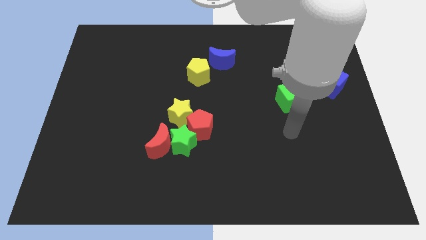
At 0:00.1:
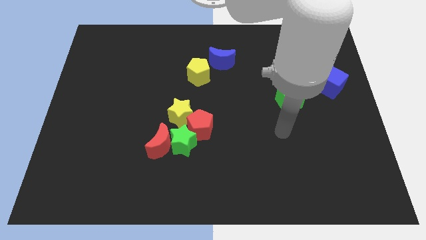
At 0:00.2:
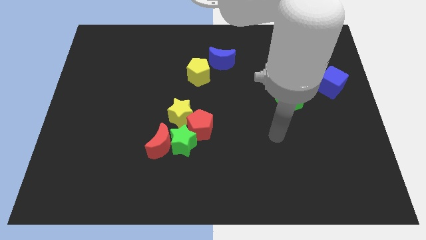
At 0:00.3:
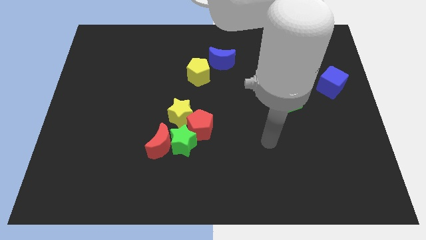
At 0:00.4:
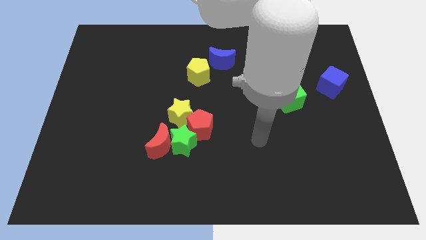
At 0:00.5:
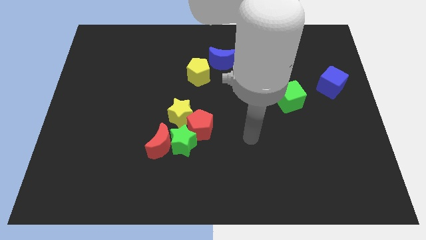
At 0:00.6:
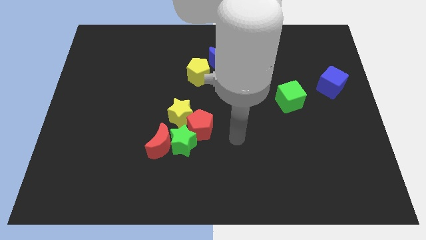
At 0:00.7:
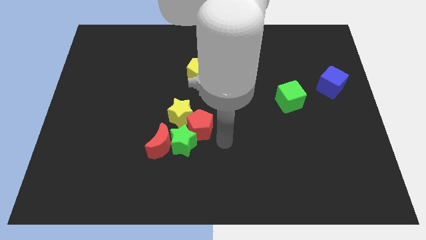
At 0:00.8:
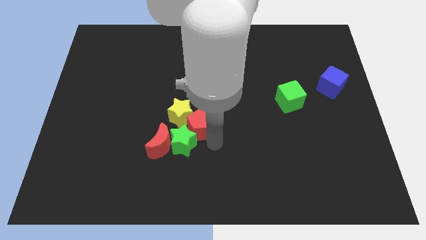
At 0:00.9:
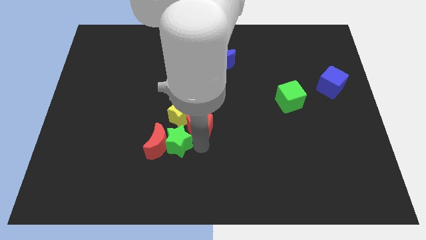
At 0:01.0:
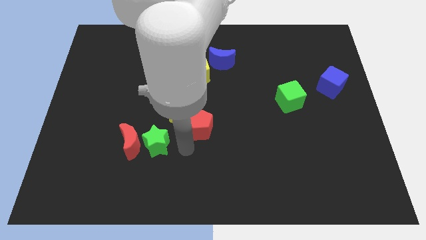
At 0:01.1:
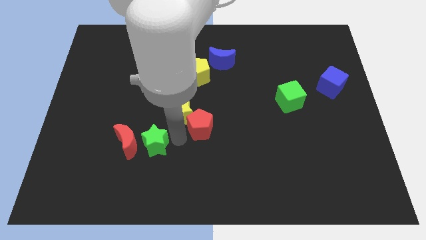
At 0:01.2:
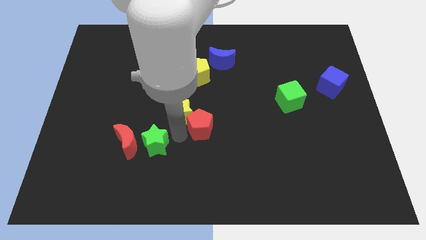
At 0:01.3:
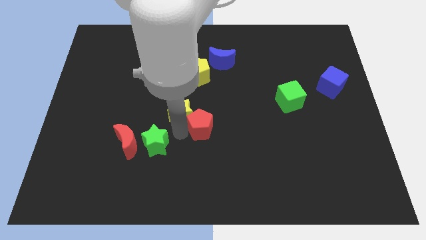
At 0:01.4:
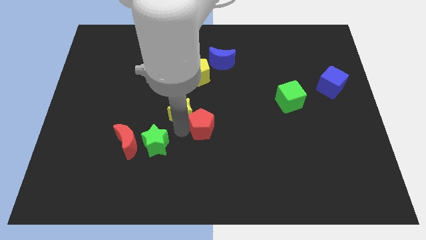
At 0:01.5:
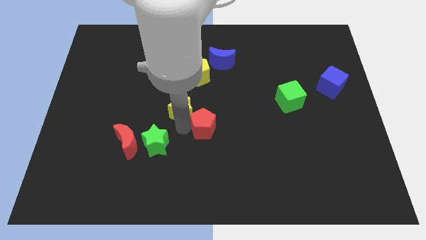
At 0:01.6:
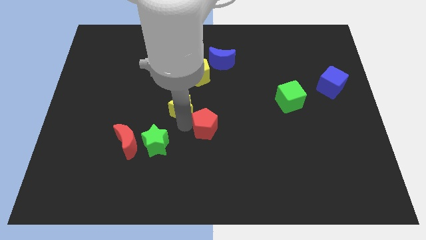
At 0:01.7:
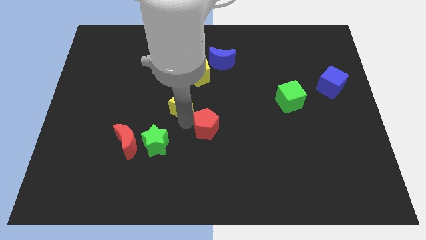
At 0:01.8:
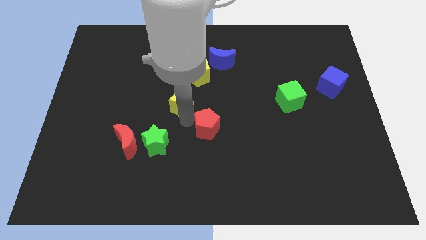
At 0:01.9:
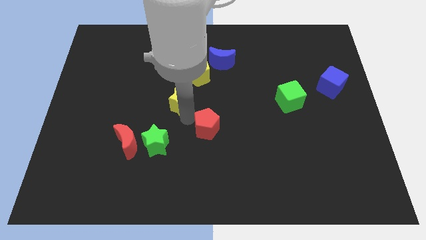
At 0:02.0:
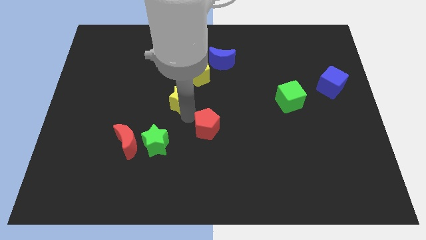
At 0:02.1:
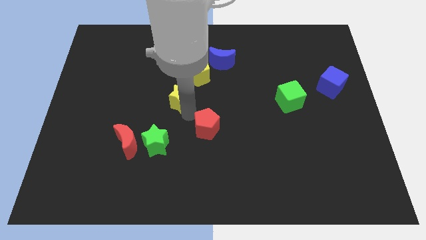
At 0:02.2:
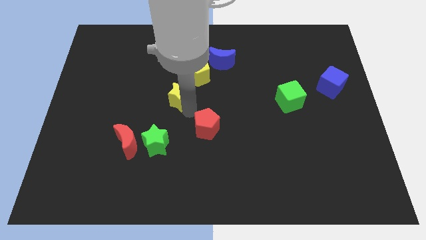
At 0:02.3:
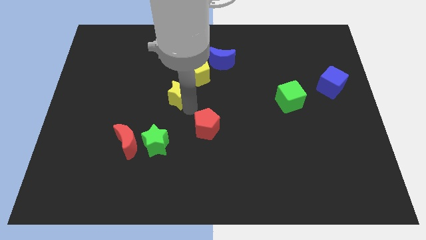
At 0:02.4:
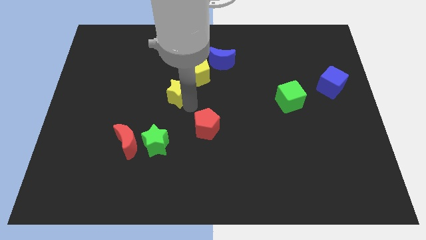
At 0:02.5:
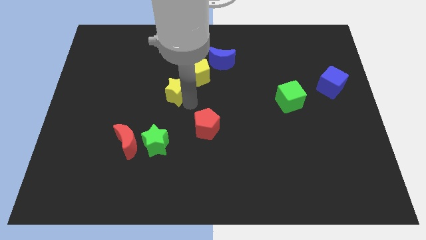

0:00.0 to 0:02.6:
slide the yellow star slightly up

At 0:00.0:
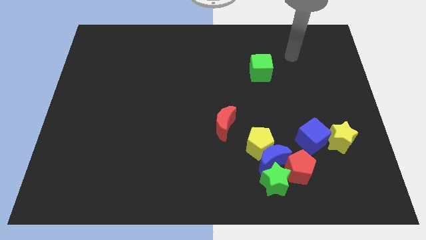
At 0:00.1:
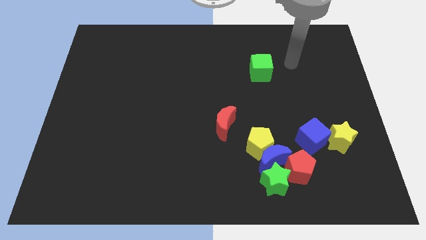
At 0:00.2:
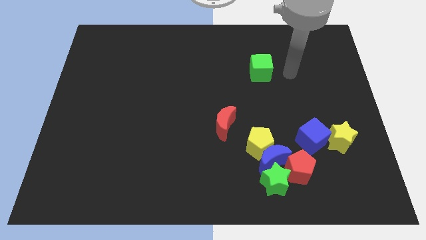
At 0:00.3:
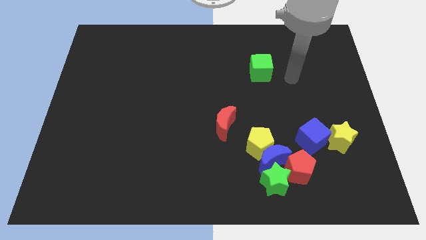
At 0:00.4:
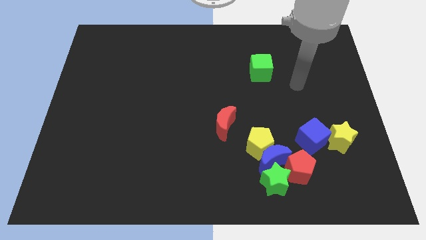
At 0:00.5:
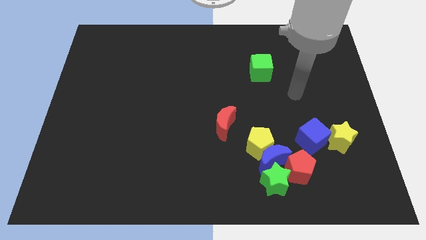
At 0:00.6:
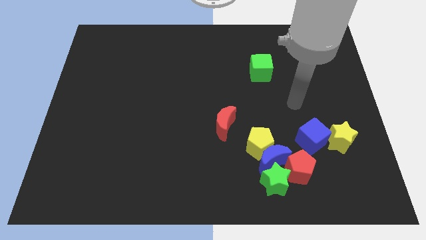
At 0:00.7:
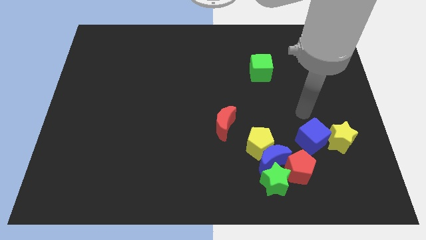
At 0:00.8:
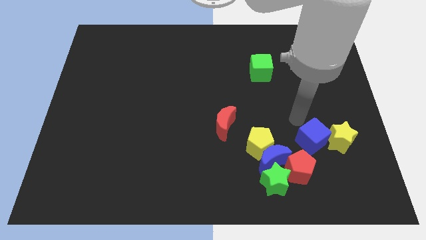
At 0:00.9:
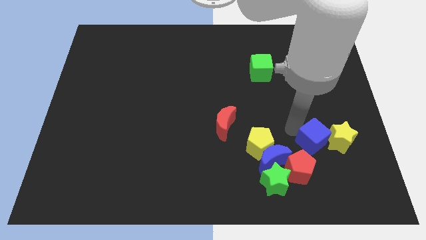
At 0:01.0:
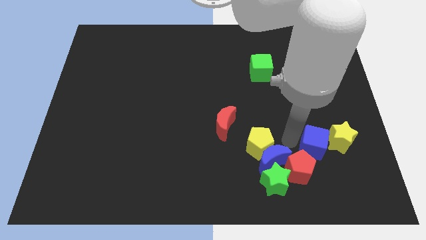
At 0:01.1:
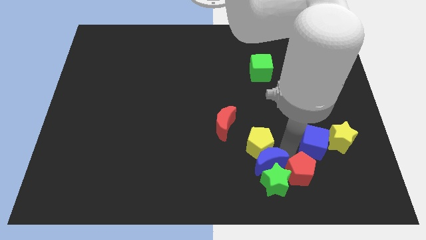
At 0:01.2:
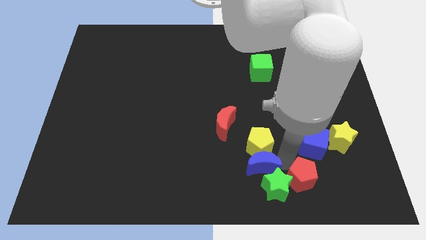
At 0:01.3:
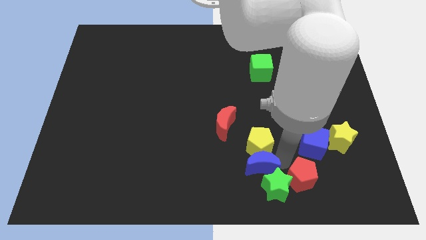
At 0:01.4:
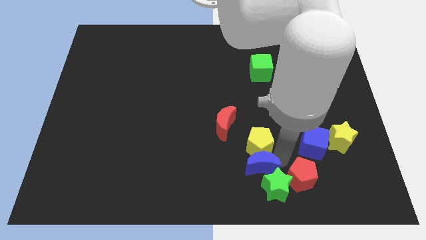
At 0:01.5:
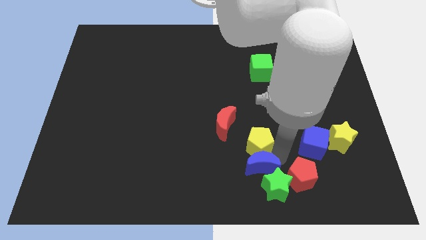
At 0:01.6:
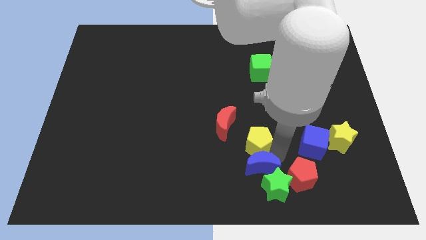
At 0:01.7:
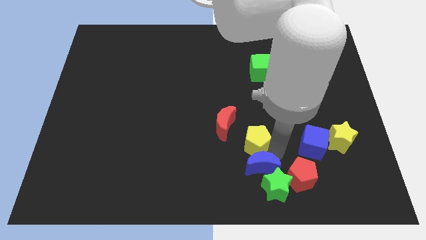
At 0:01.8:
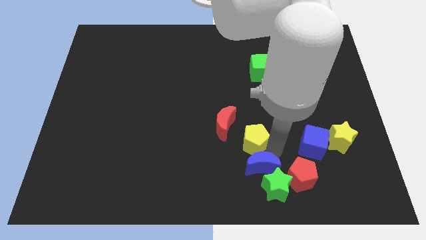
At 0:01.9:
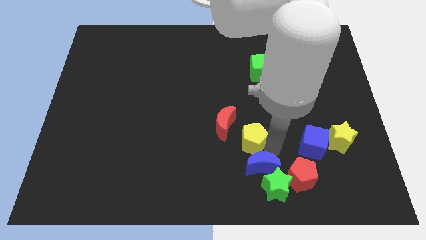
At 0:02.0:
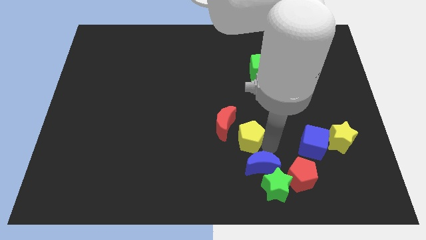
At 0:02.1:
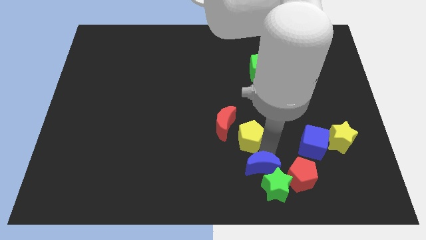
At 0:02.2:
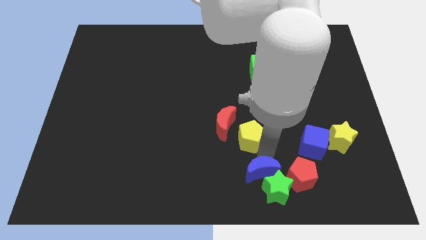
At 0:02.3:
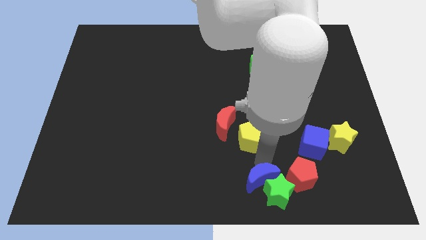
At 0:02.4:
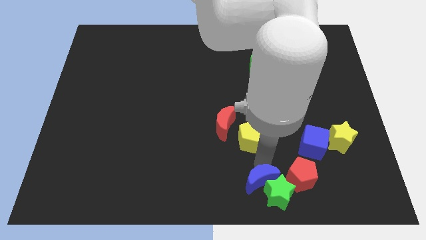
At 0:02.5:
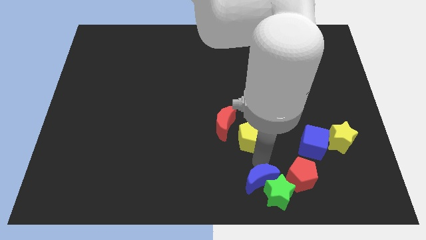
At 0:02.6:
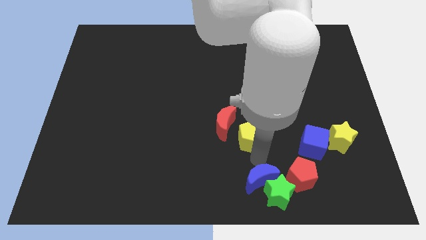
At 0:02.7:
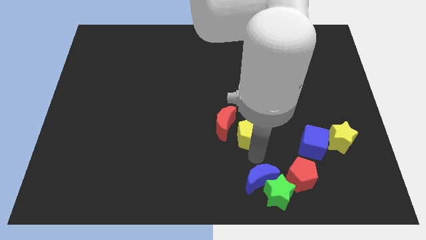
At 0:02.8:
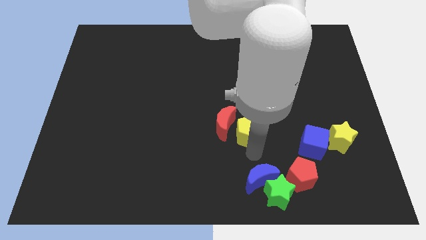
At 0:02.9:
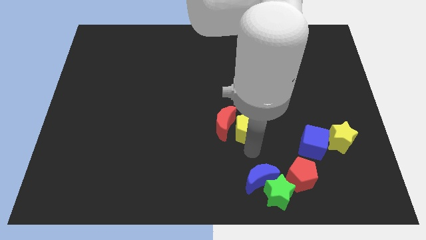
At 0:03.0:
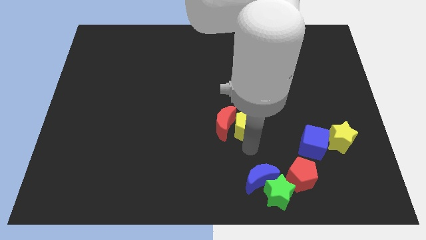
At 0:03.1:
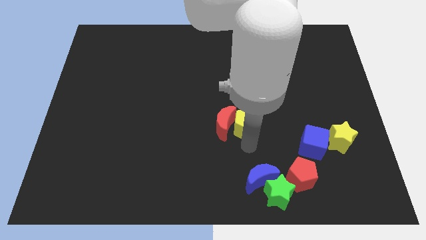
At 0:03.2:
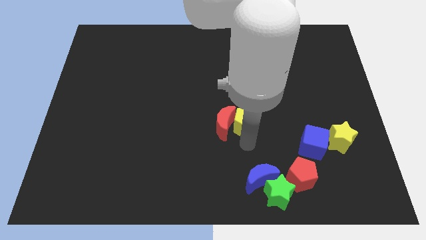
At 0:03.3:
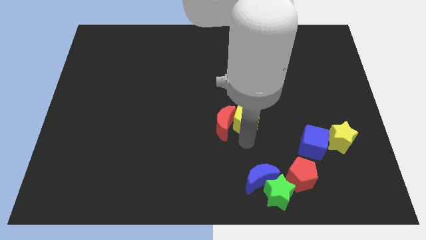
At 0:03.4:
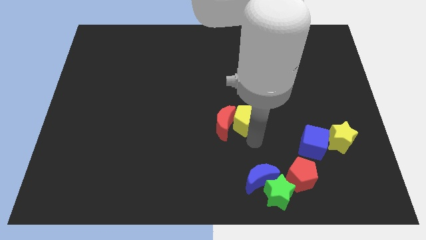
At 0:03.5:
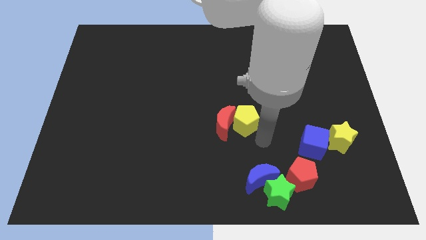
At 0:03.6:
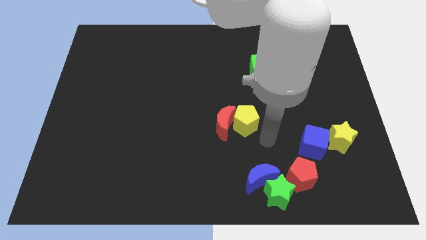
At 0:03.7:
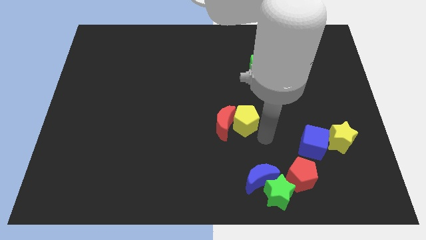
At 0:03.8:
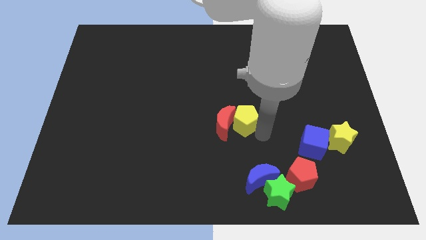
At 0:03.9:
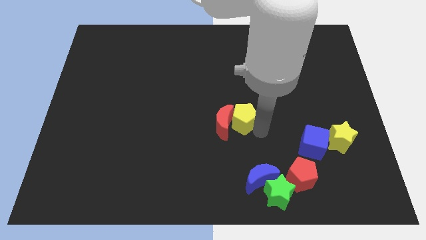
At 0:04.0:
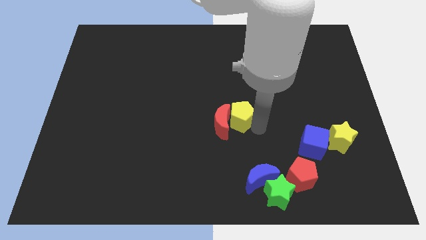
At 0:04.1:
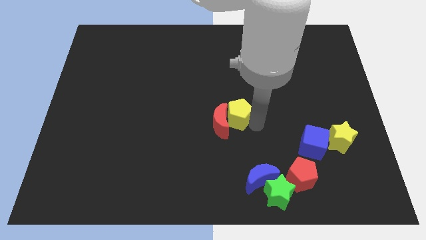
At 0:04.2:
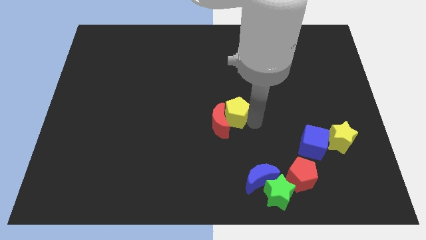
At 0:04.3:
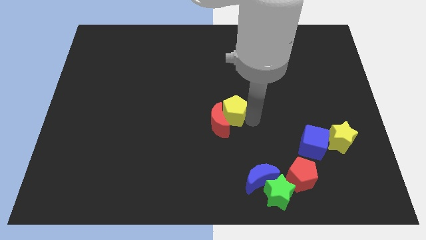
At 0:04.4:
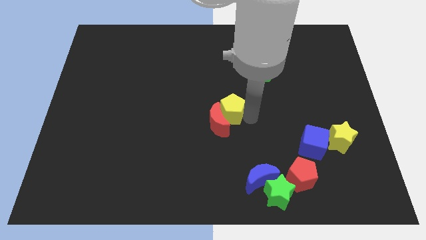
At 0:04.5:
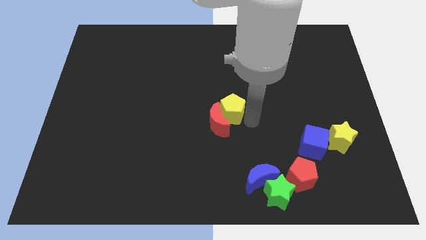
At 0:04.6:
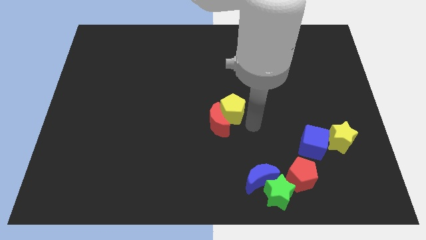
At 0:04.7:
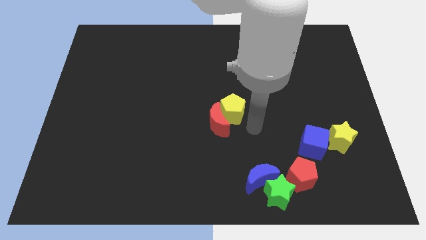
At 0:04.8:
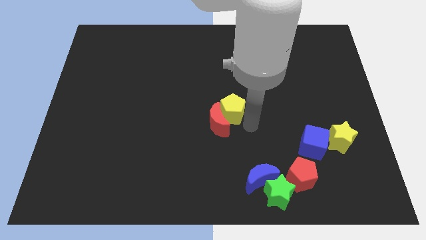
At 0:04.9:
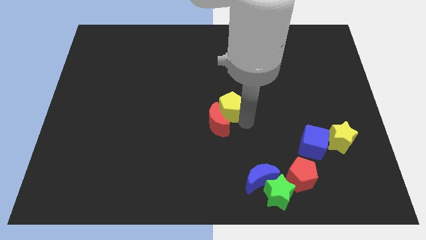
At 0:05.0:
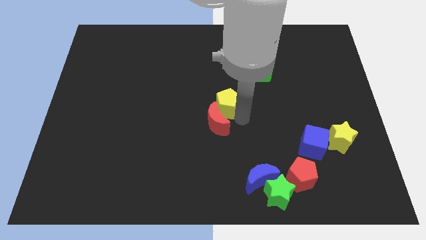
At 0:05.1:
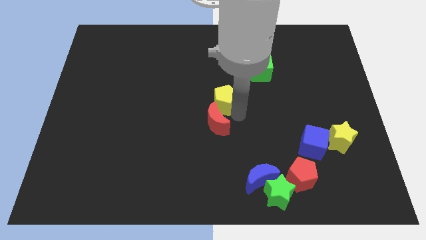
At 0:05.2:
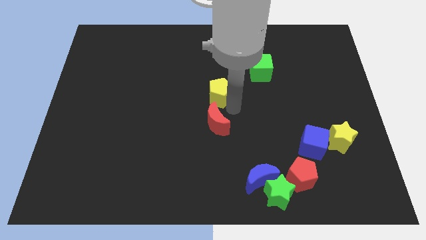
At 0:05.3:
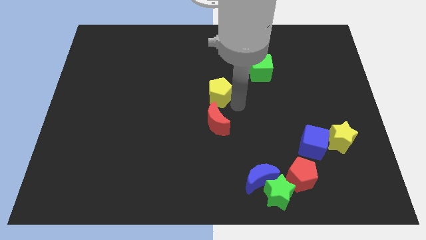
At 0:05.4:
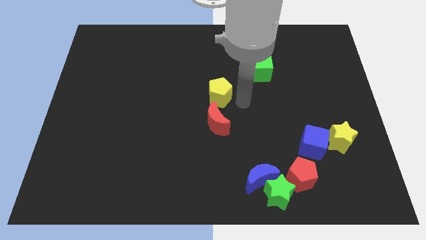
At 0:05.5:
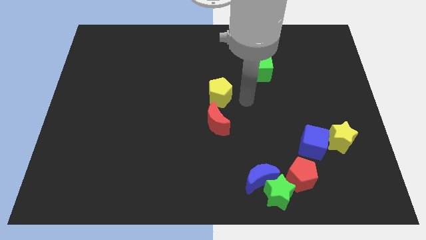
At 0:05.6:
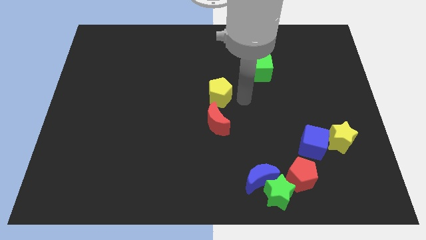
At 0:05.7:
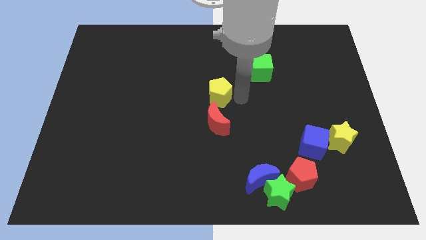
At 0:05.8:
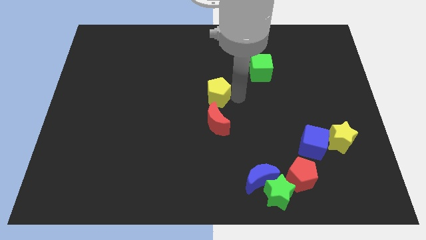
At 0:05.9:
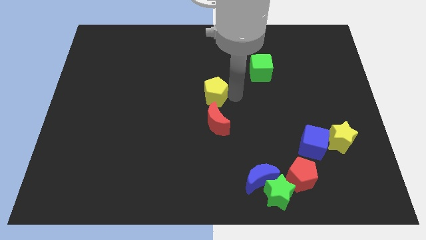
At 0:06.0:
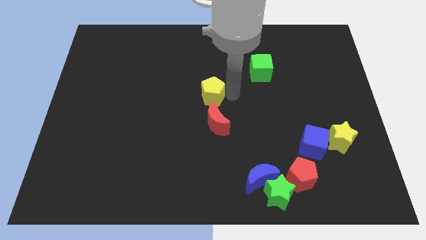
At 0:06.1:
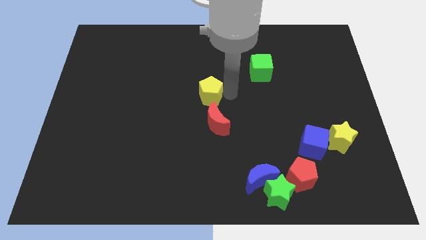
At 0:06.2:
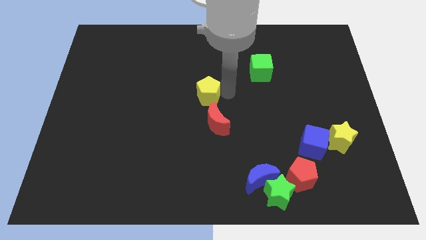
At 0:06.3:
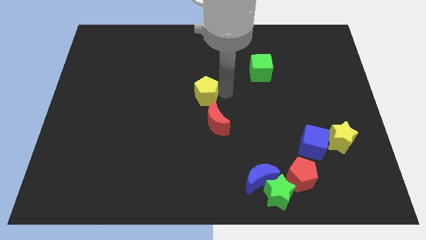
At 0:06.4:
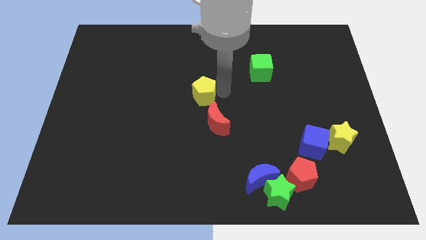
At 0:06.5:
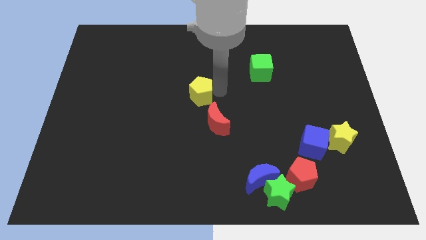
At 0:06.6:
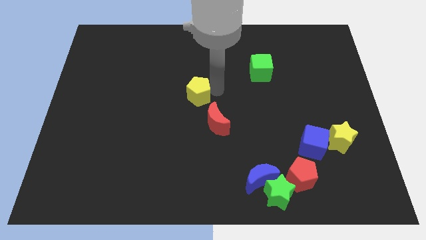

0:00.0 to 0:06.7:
move the yellow pentagon upwards and then left
